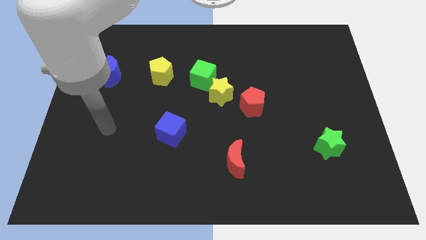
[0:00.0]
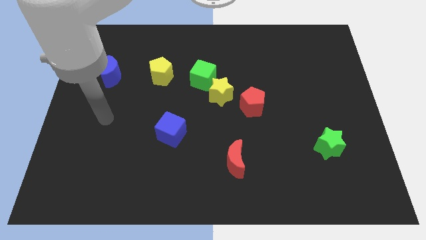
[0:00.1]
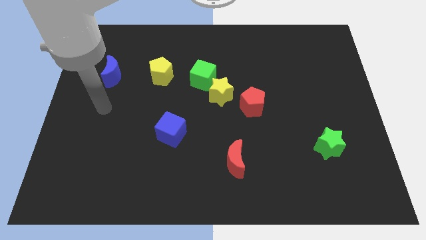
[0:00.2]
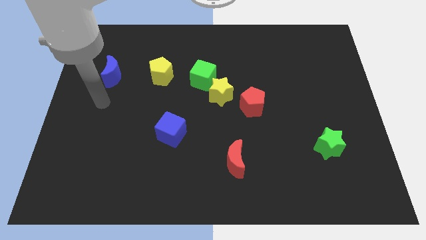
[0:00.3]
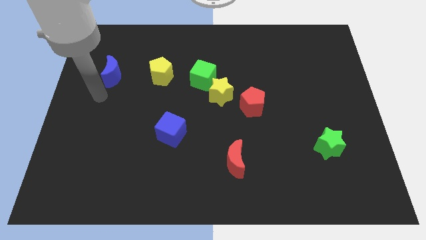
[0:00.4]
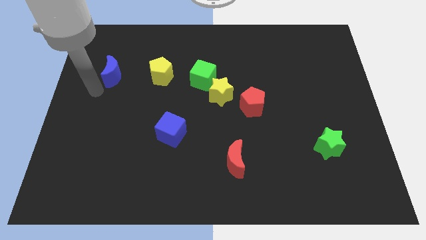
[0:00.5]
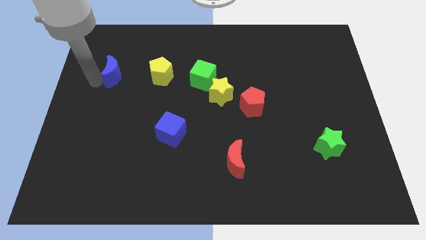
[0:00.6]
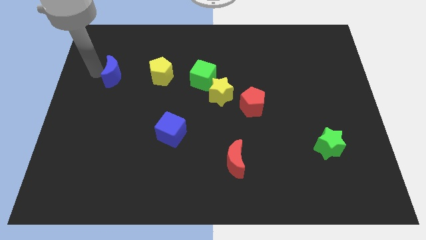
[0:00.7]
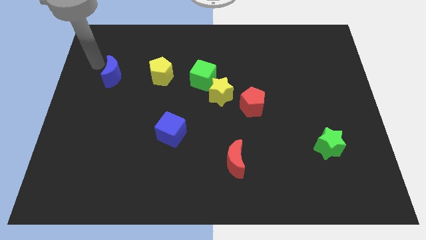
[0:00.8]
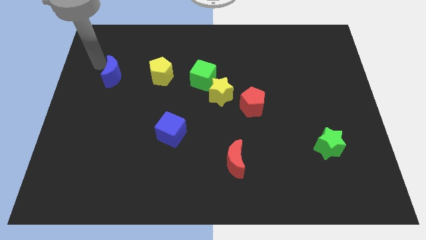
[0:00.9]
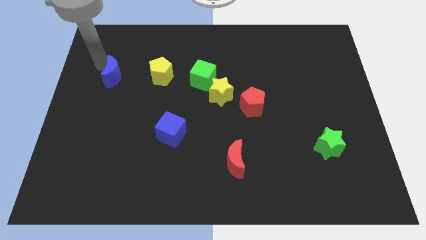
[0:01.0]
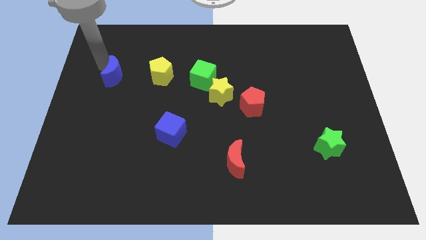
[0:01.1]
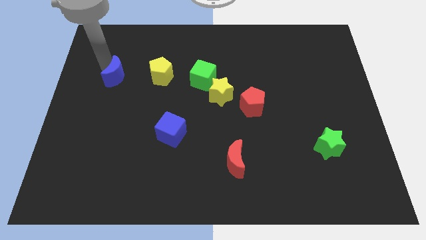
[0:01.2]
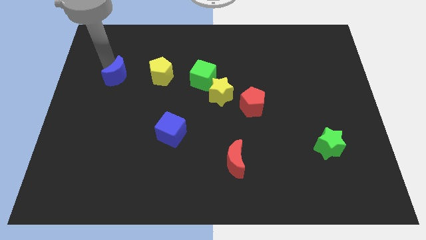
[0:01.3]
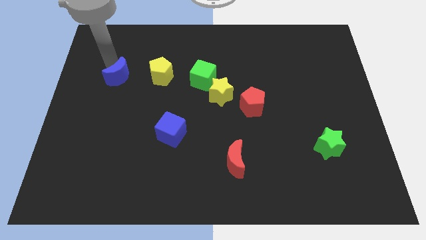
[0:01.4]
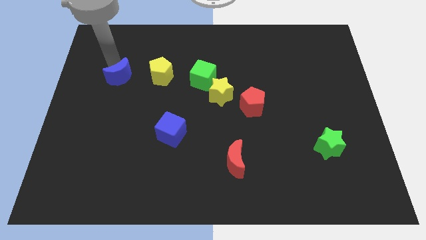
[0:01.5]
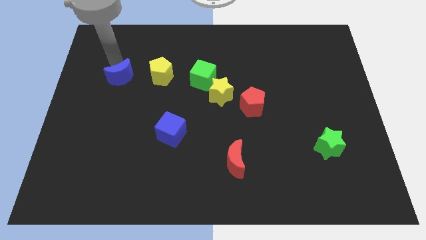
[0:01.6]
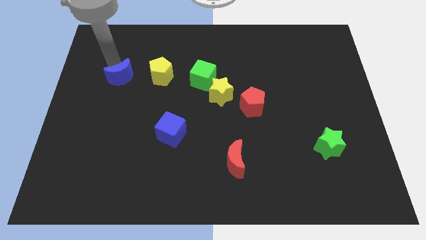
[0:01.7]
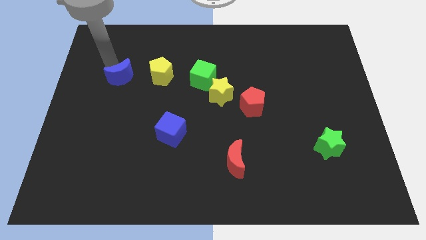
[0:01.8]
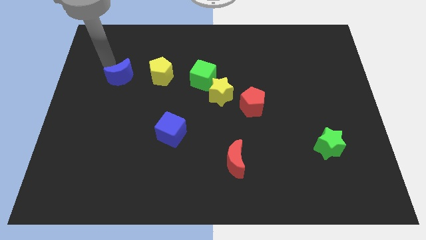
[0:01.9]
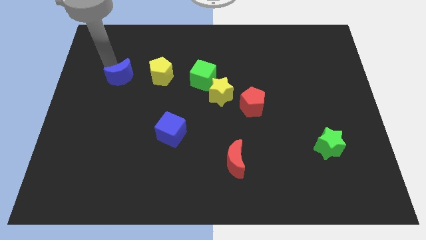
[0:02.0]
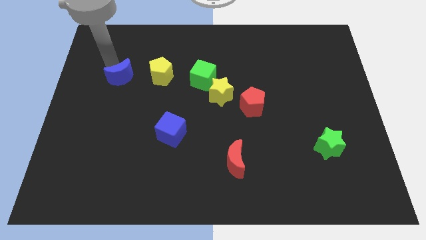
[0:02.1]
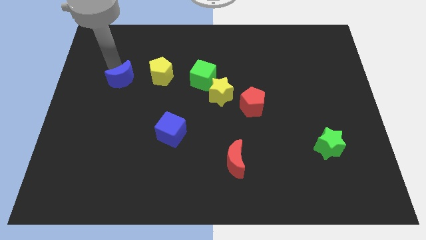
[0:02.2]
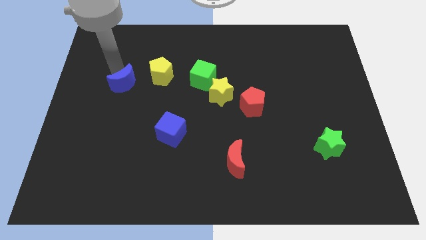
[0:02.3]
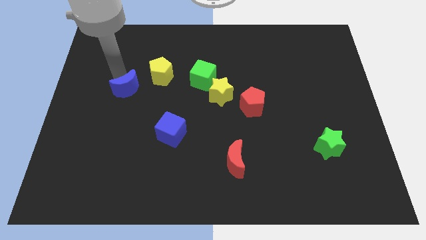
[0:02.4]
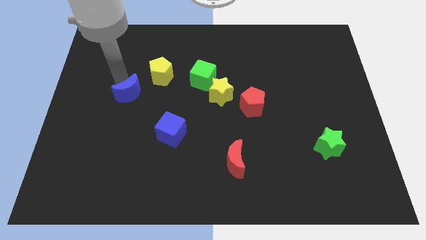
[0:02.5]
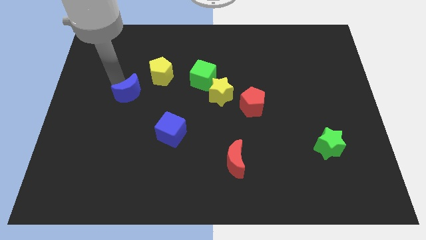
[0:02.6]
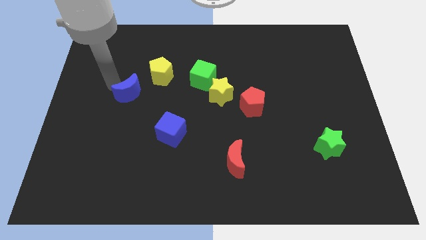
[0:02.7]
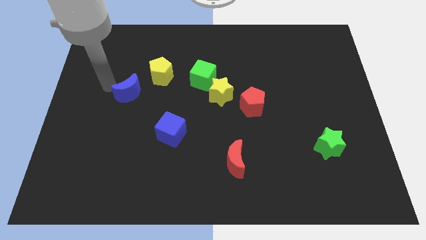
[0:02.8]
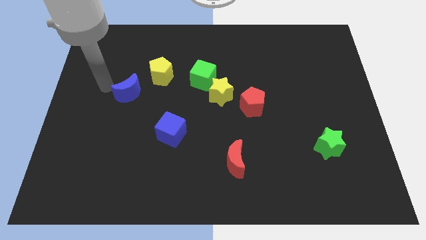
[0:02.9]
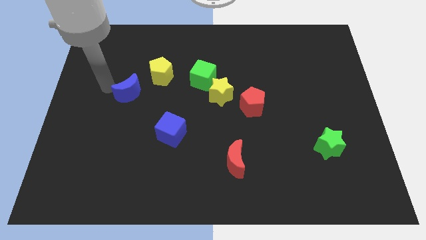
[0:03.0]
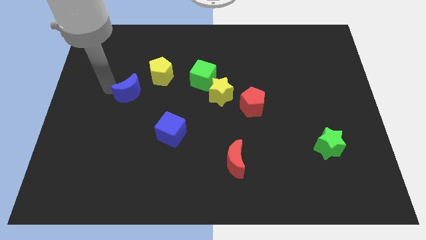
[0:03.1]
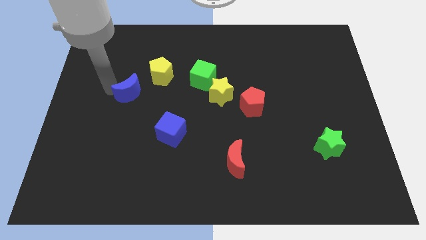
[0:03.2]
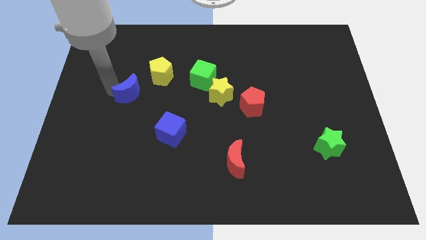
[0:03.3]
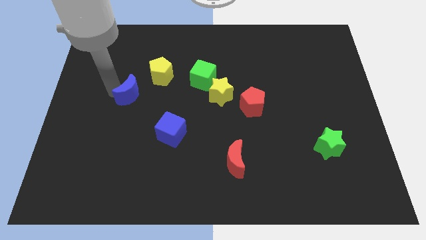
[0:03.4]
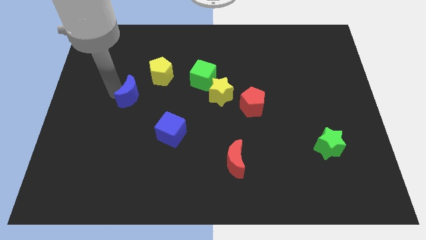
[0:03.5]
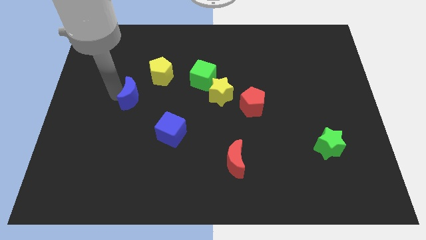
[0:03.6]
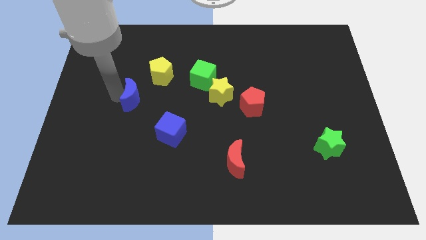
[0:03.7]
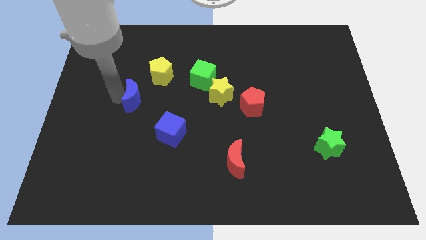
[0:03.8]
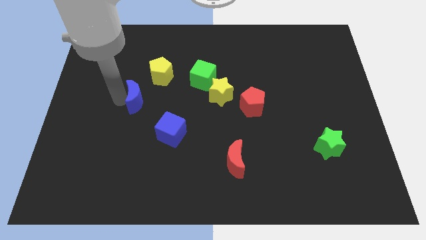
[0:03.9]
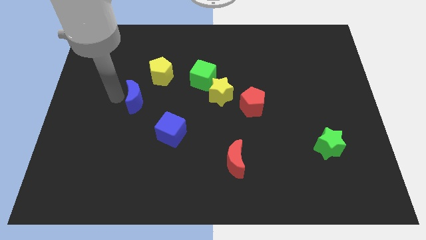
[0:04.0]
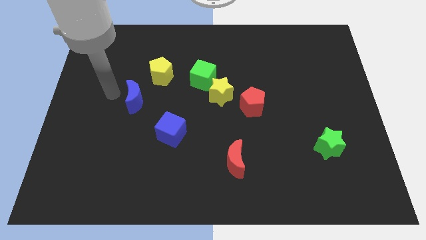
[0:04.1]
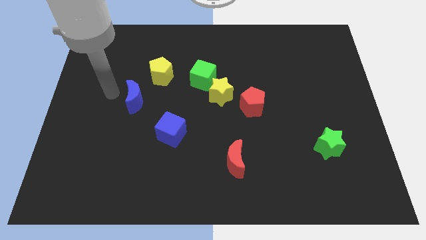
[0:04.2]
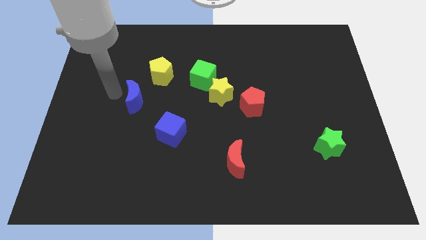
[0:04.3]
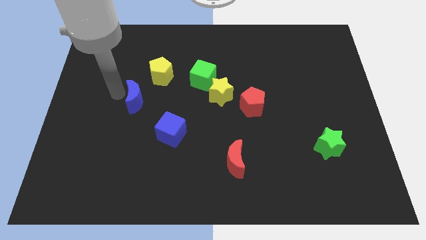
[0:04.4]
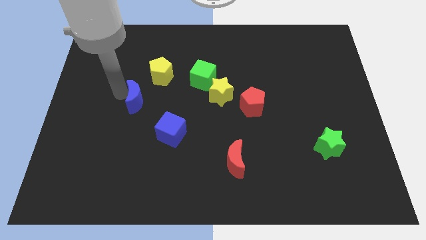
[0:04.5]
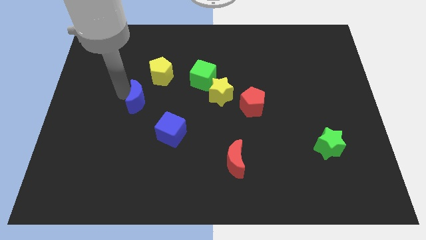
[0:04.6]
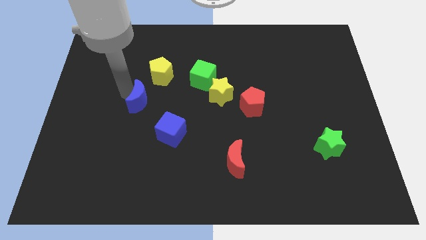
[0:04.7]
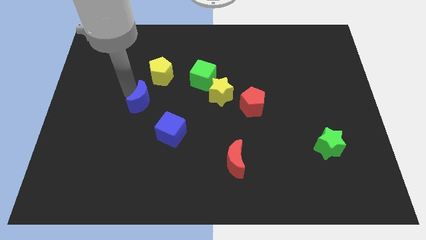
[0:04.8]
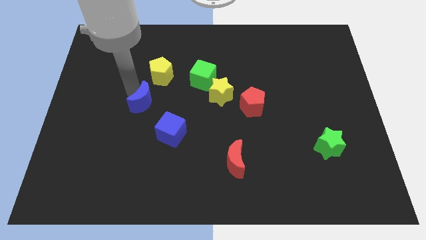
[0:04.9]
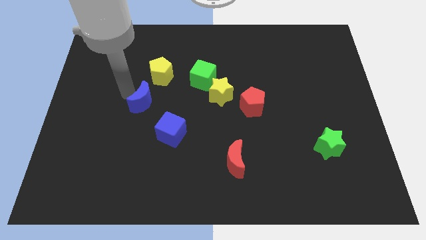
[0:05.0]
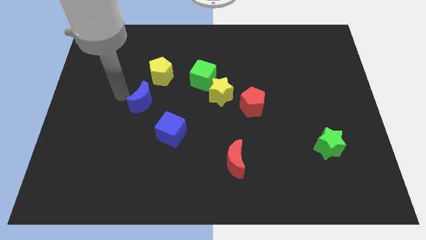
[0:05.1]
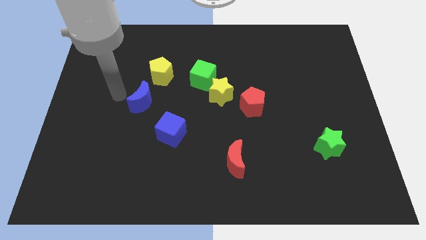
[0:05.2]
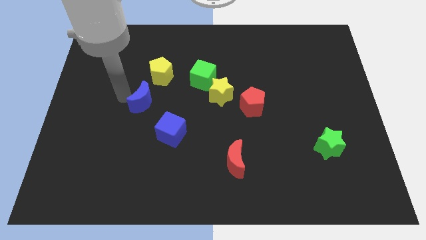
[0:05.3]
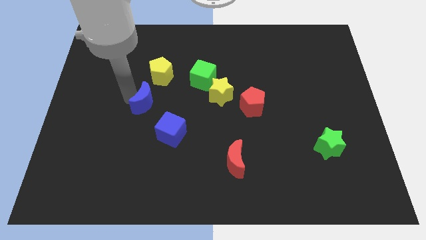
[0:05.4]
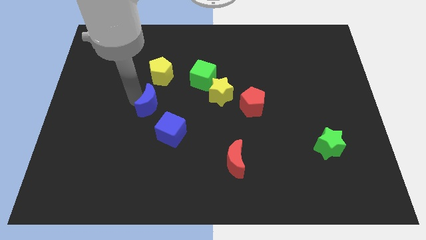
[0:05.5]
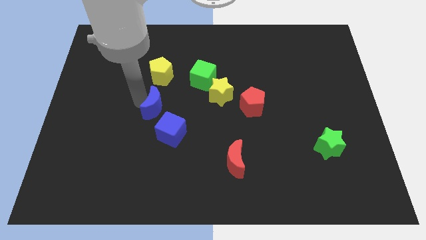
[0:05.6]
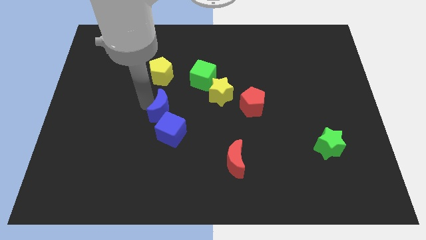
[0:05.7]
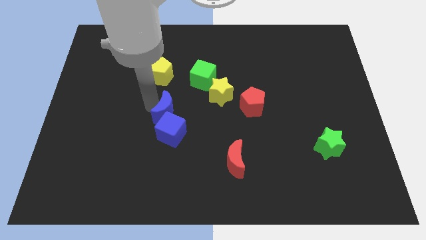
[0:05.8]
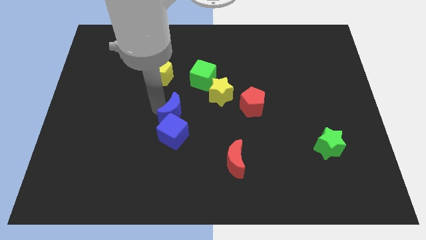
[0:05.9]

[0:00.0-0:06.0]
move the blue moon down and to the right

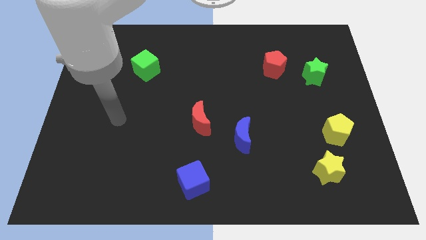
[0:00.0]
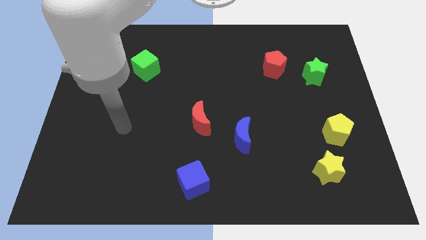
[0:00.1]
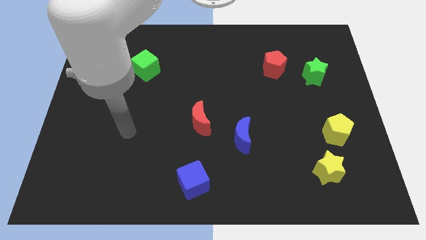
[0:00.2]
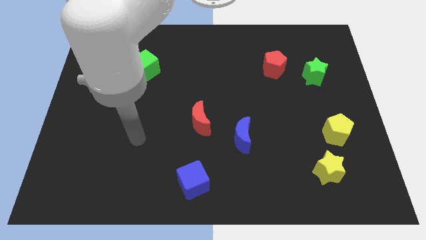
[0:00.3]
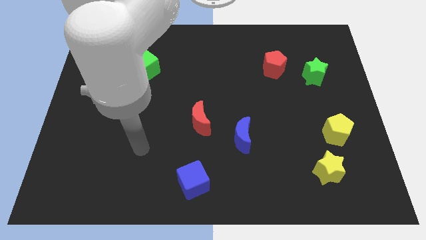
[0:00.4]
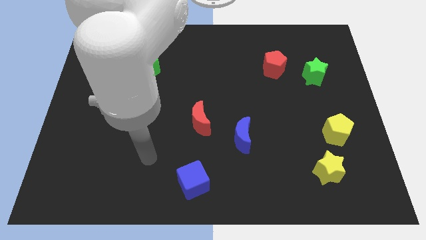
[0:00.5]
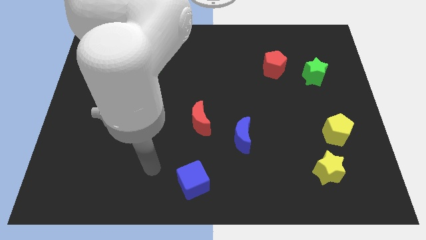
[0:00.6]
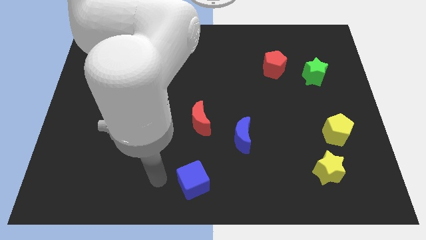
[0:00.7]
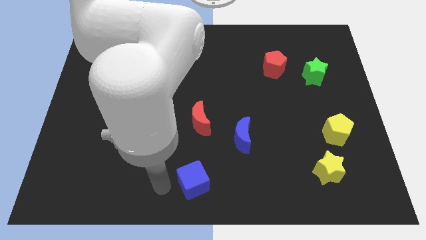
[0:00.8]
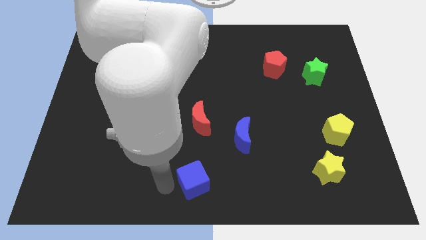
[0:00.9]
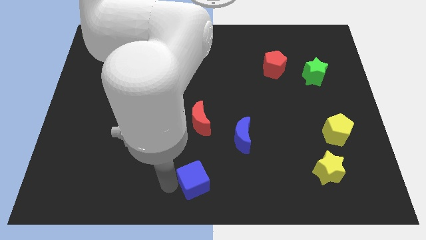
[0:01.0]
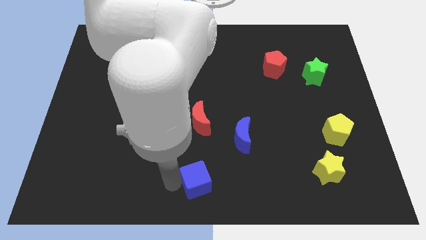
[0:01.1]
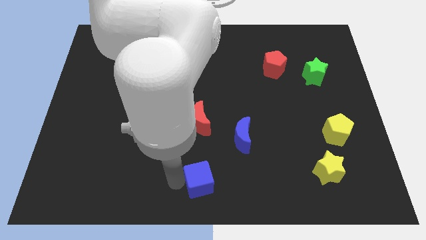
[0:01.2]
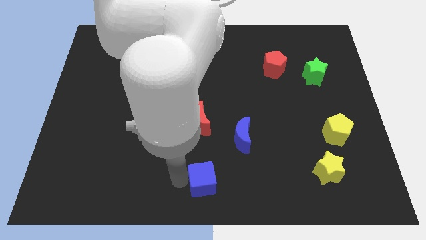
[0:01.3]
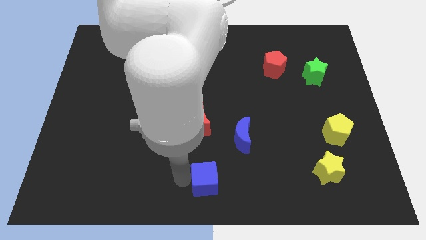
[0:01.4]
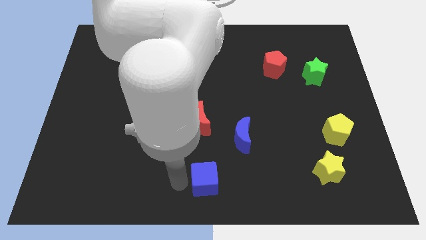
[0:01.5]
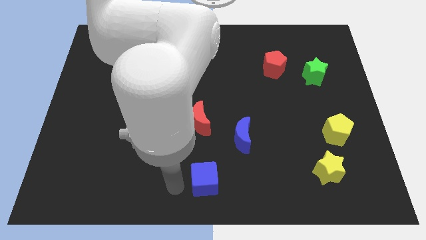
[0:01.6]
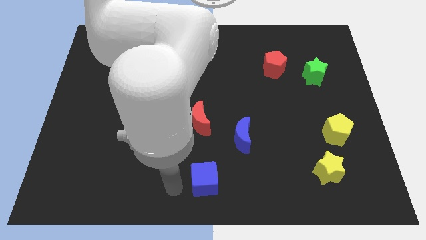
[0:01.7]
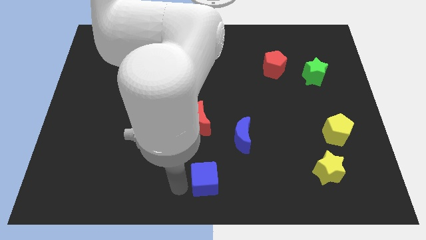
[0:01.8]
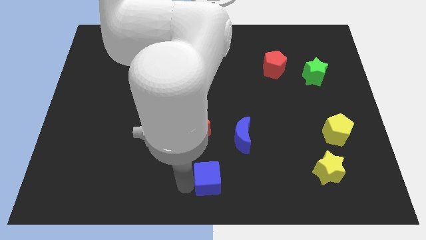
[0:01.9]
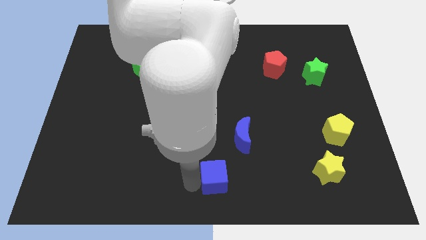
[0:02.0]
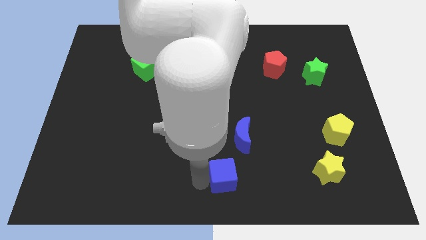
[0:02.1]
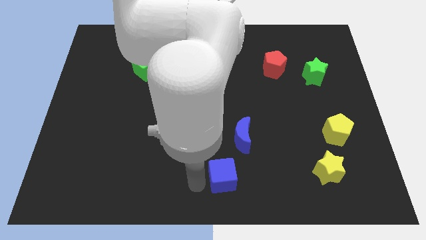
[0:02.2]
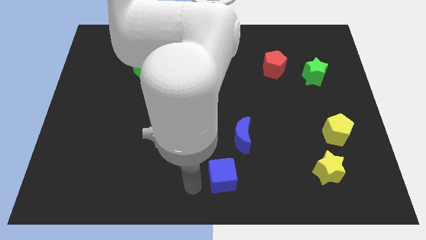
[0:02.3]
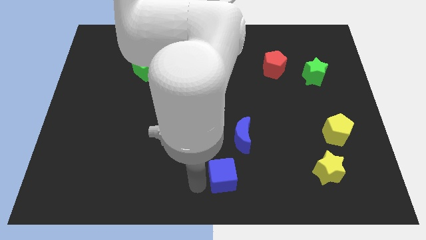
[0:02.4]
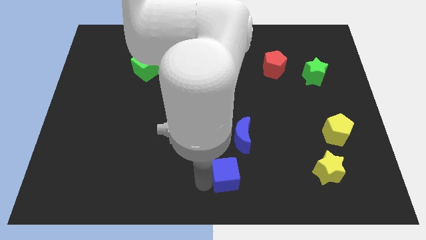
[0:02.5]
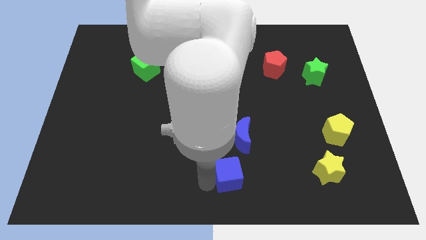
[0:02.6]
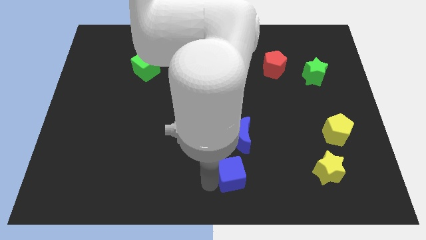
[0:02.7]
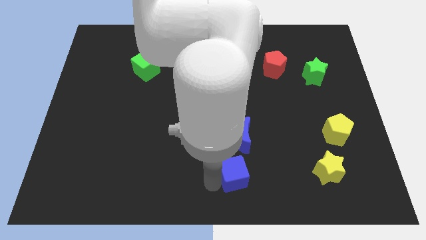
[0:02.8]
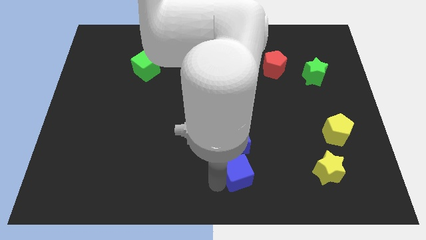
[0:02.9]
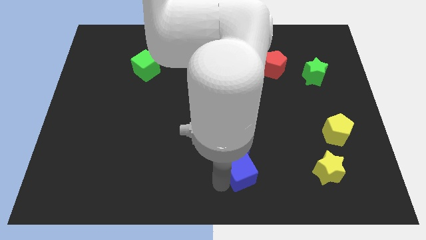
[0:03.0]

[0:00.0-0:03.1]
slightly move the blue cube up and to the right diagonally
